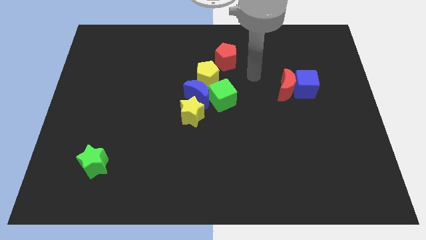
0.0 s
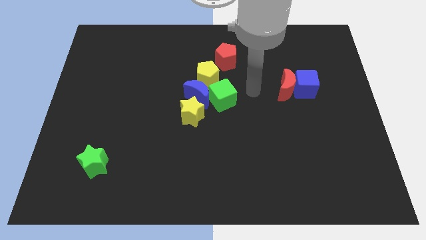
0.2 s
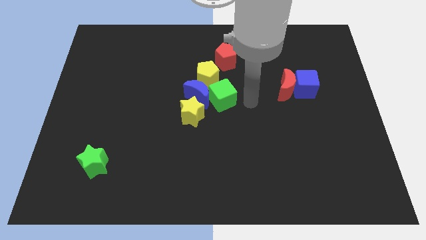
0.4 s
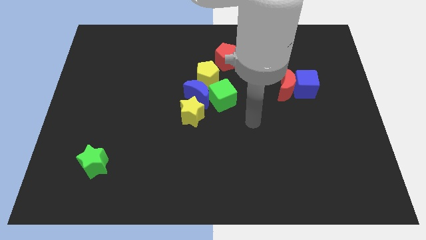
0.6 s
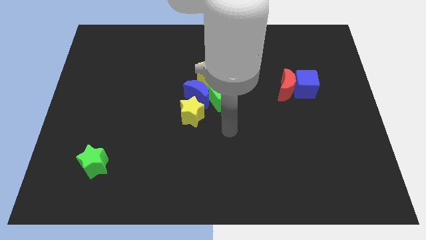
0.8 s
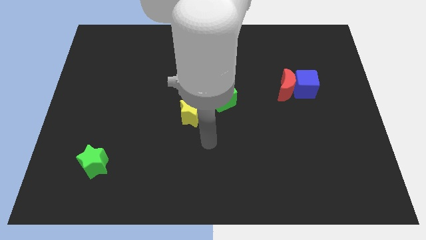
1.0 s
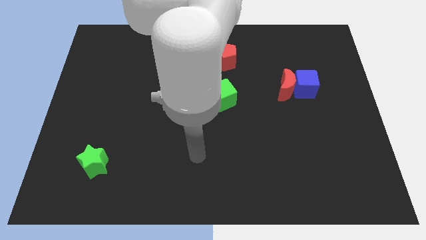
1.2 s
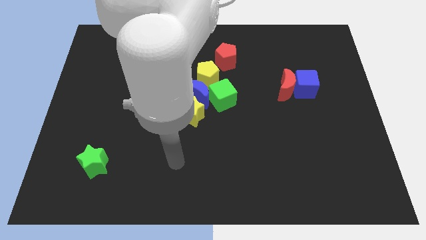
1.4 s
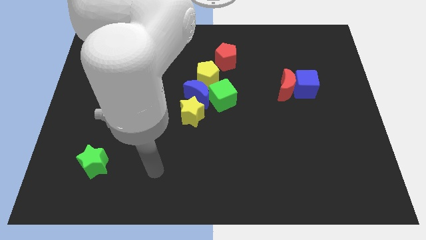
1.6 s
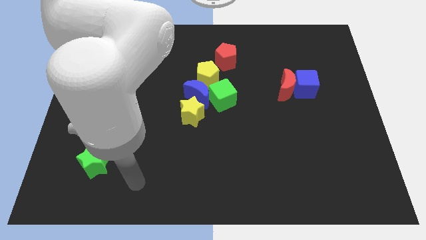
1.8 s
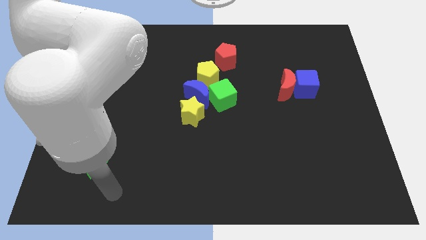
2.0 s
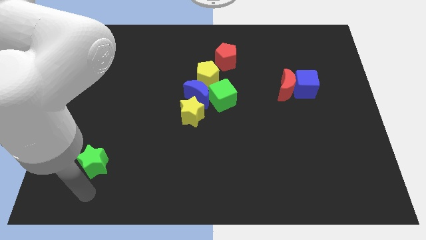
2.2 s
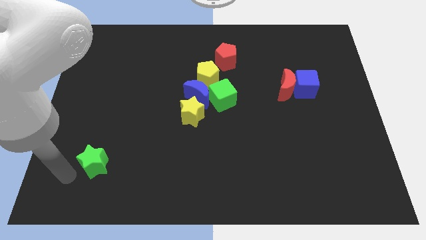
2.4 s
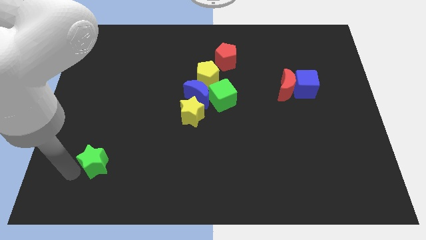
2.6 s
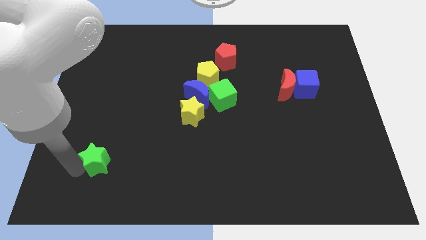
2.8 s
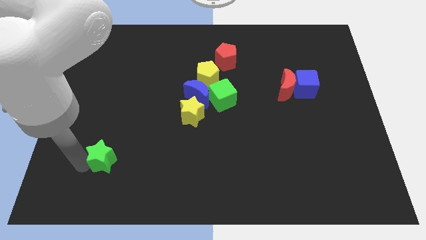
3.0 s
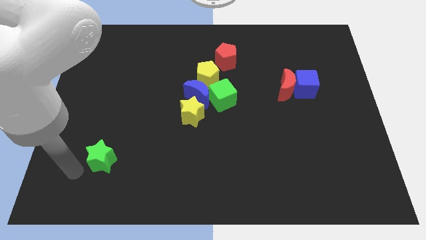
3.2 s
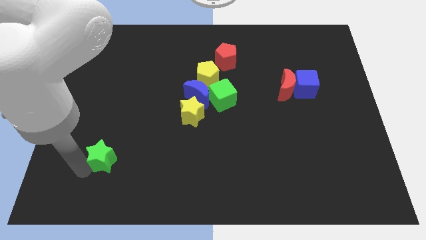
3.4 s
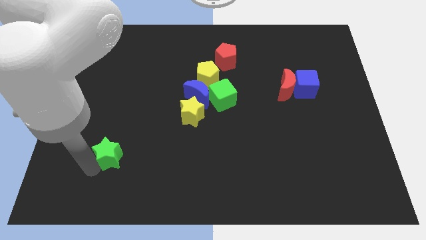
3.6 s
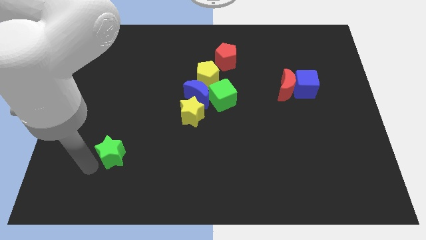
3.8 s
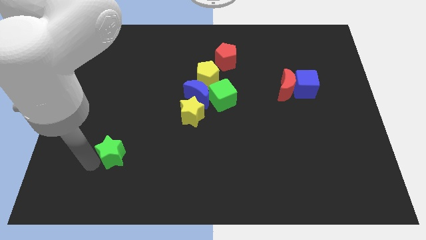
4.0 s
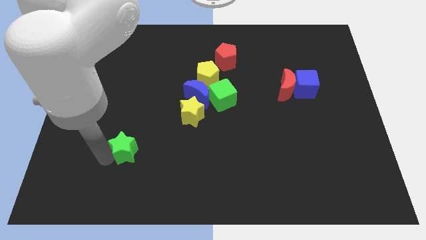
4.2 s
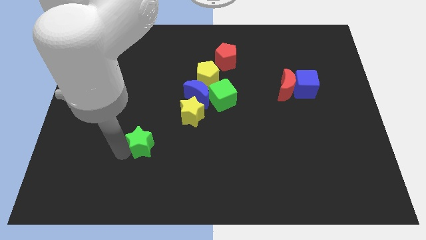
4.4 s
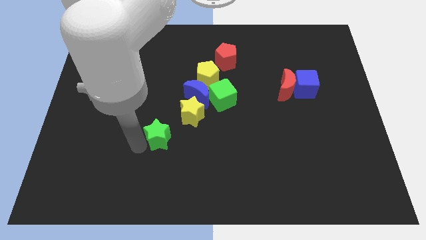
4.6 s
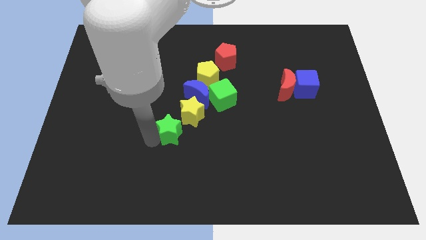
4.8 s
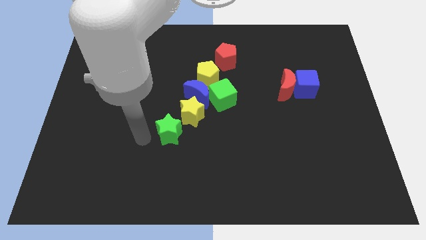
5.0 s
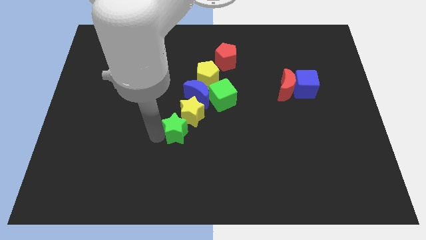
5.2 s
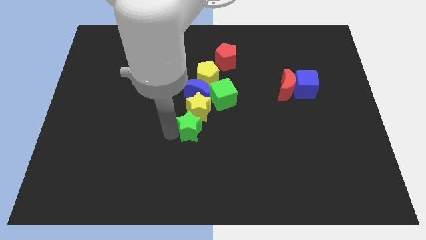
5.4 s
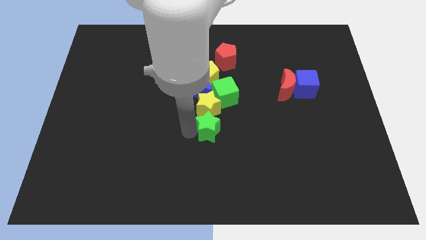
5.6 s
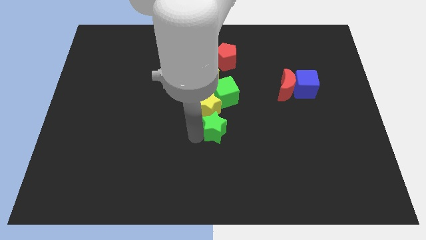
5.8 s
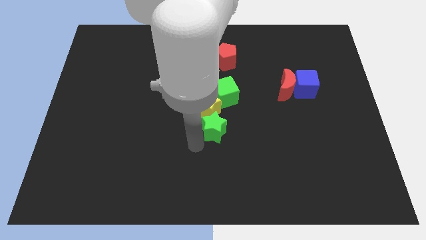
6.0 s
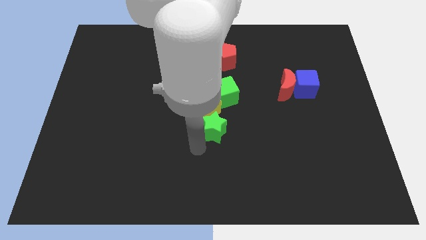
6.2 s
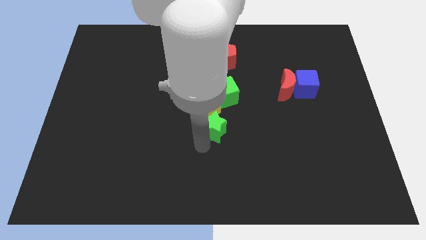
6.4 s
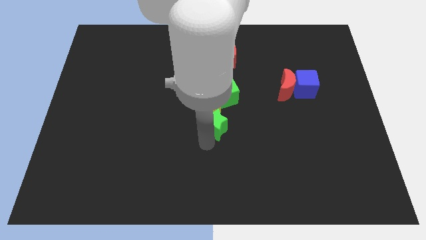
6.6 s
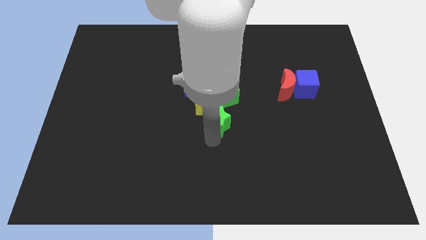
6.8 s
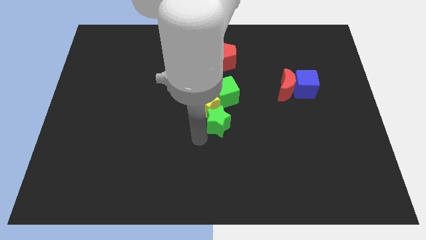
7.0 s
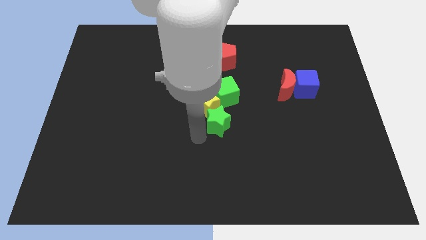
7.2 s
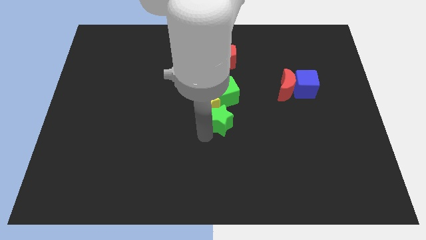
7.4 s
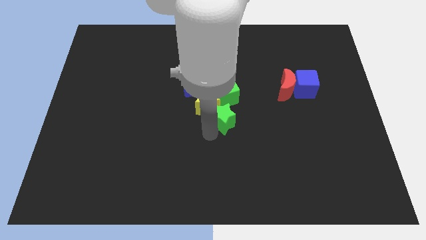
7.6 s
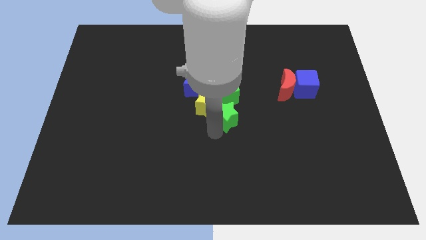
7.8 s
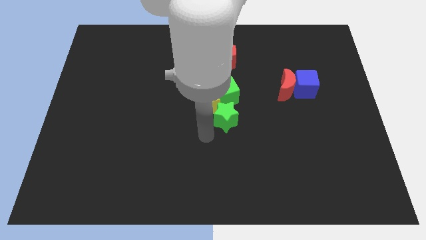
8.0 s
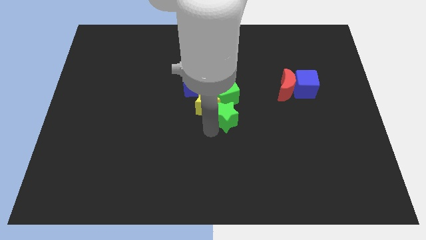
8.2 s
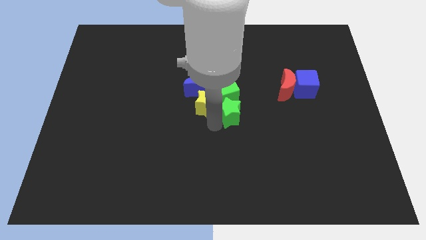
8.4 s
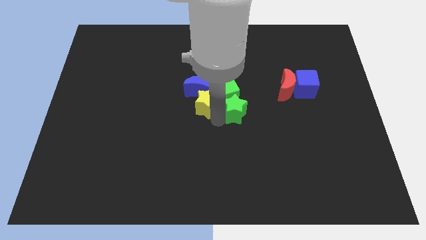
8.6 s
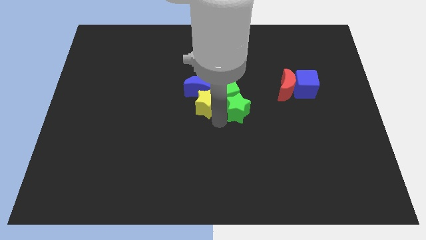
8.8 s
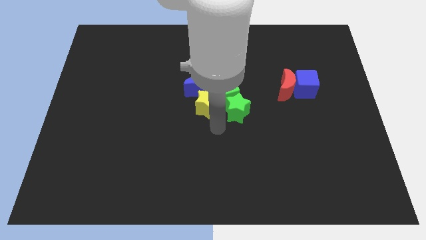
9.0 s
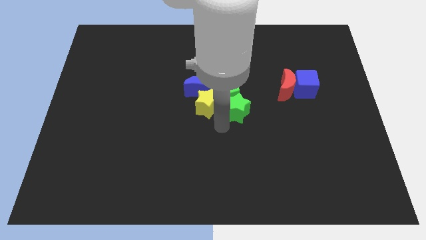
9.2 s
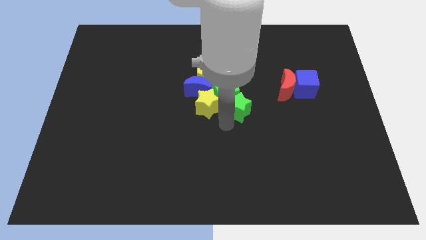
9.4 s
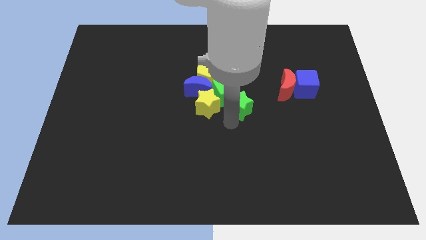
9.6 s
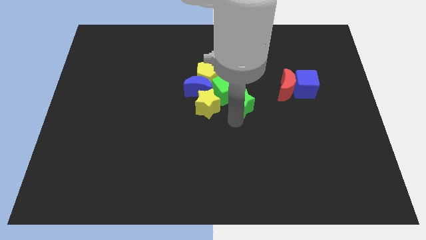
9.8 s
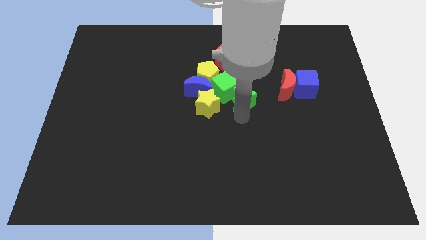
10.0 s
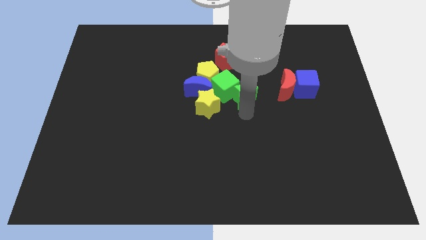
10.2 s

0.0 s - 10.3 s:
move the green star just left of the blue cube

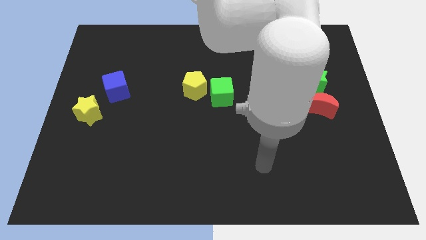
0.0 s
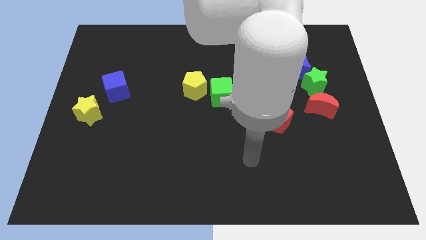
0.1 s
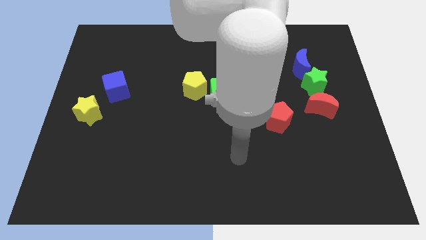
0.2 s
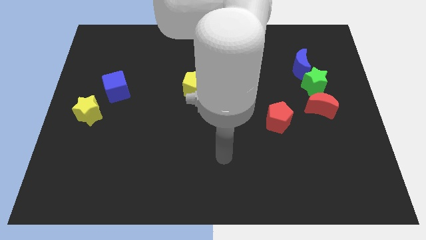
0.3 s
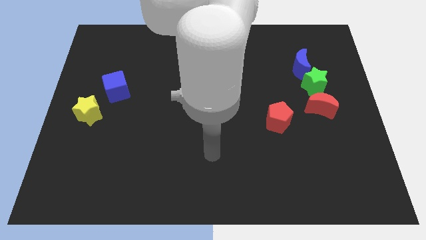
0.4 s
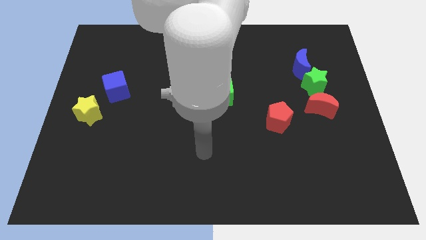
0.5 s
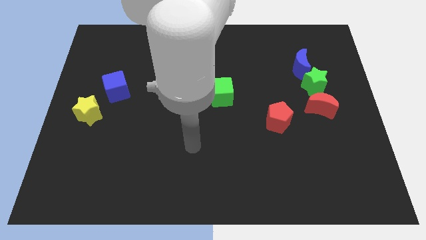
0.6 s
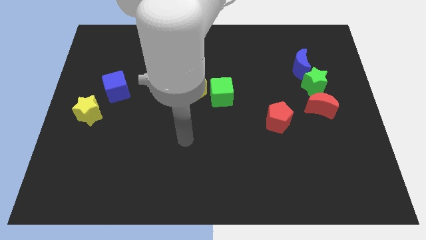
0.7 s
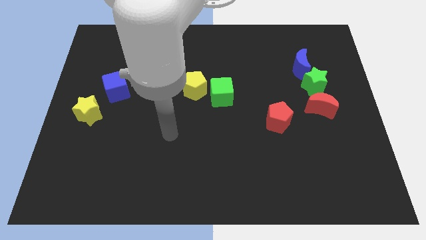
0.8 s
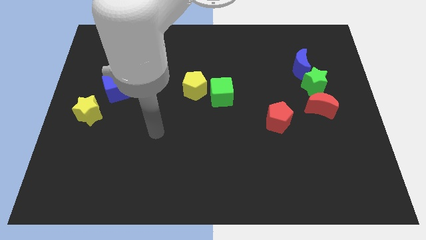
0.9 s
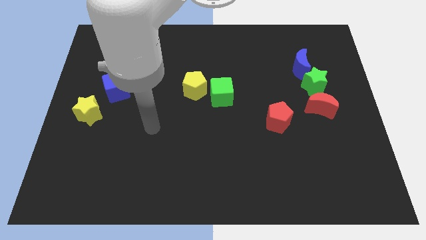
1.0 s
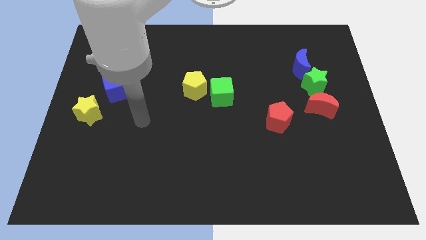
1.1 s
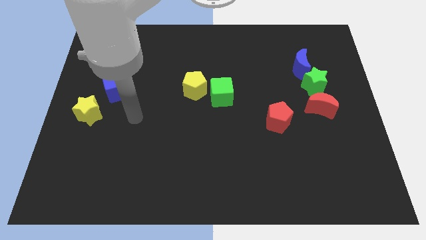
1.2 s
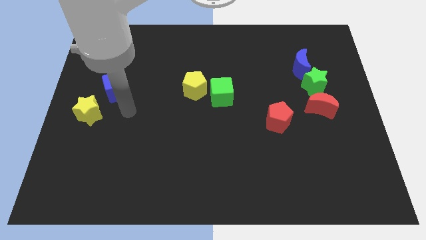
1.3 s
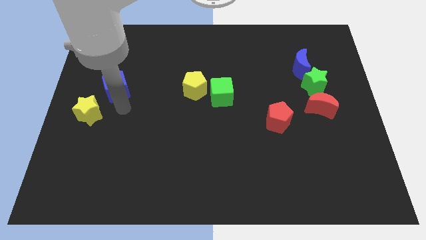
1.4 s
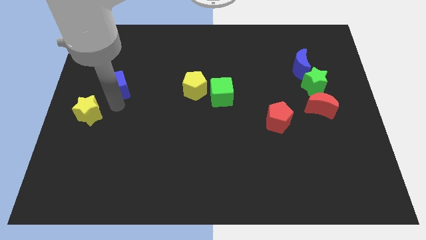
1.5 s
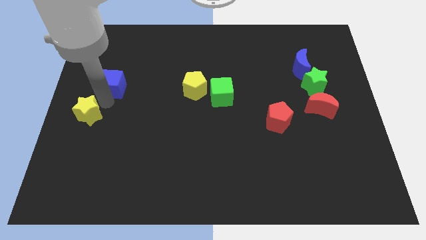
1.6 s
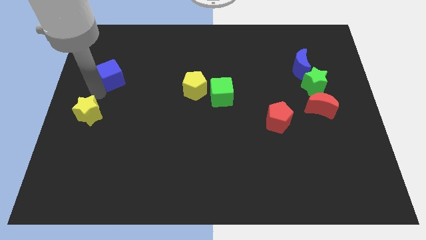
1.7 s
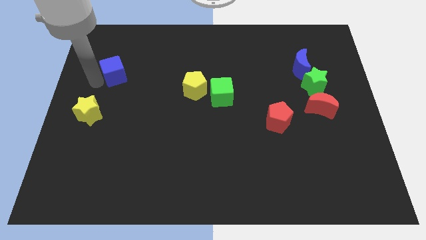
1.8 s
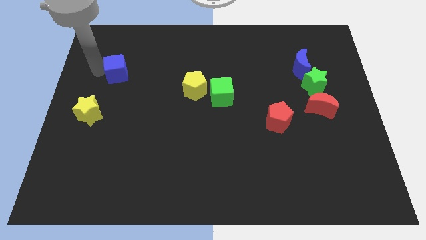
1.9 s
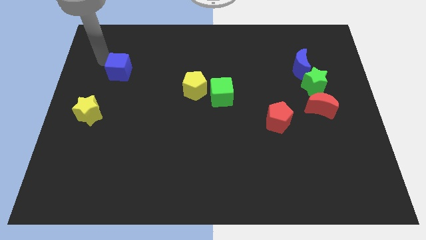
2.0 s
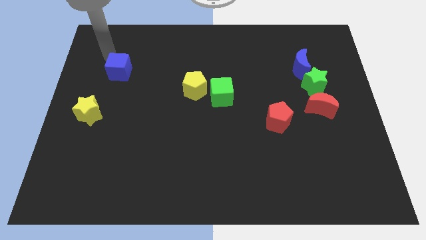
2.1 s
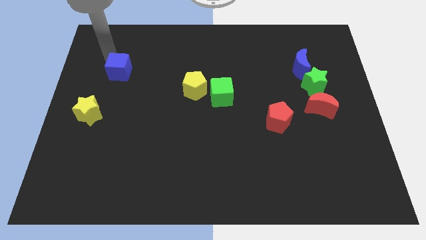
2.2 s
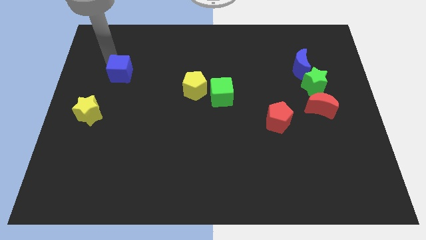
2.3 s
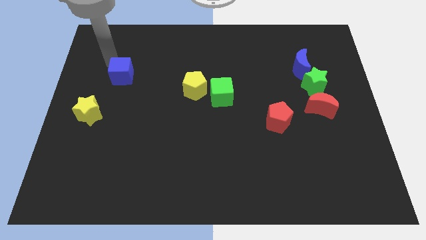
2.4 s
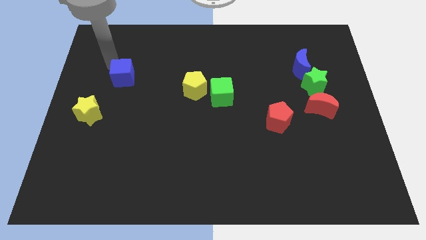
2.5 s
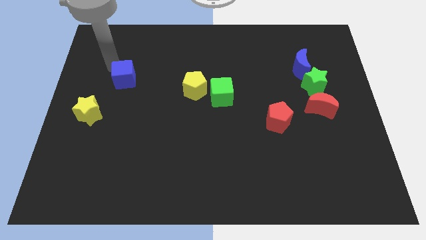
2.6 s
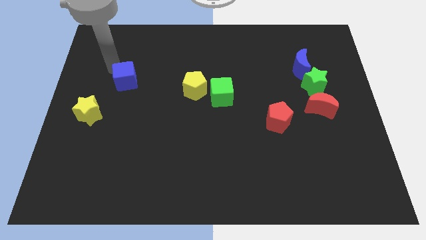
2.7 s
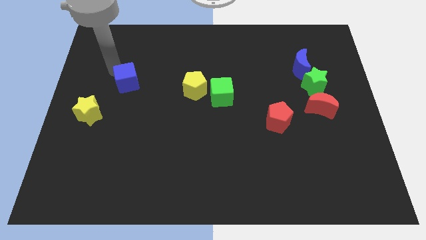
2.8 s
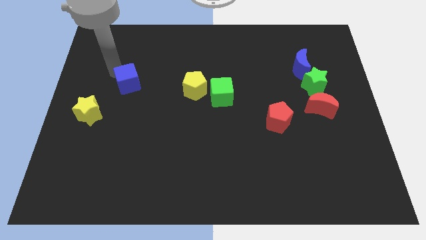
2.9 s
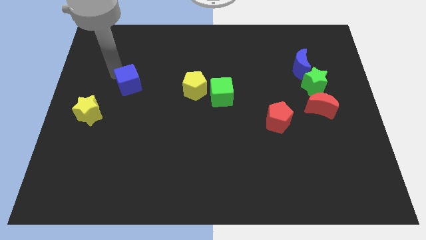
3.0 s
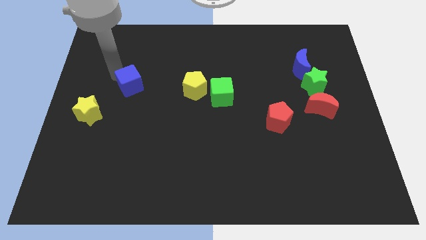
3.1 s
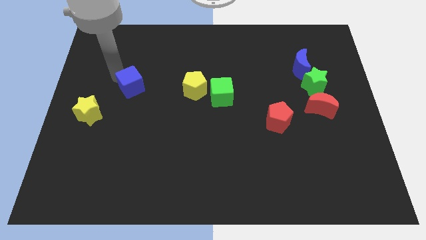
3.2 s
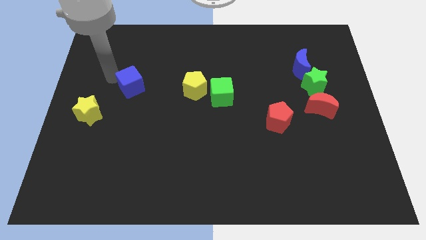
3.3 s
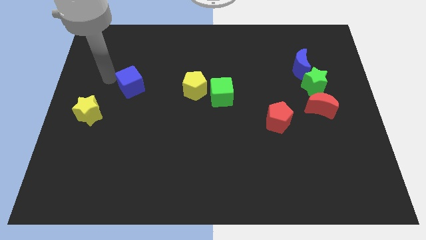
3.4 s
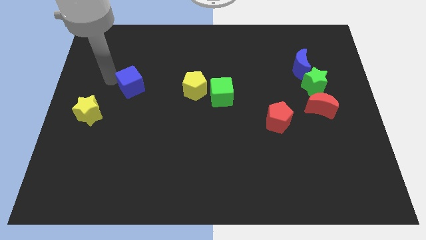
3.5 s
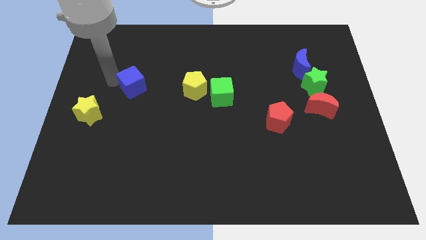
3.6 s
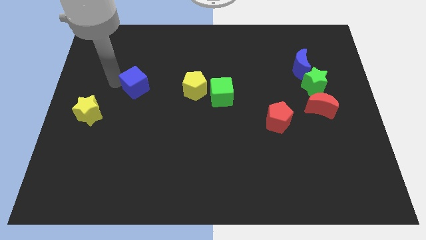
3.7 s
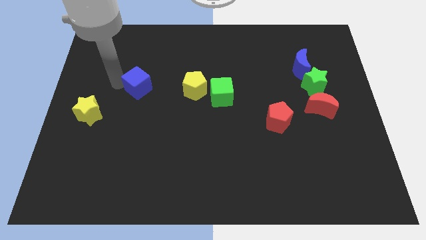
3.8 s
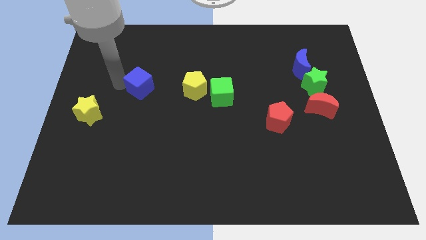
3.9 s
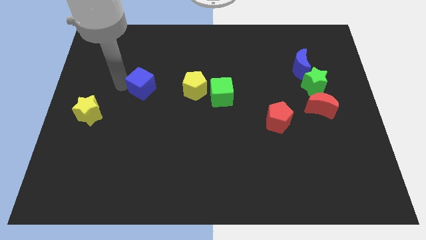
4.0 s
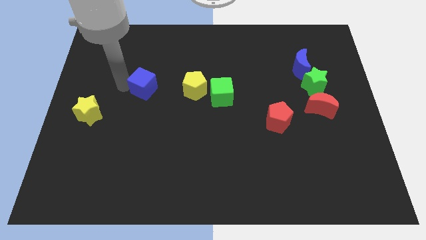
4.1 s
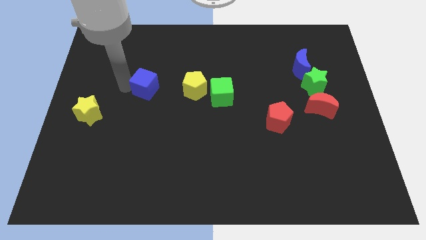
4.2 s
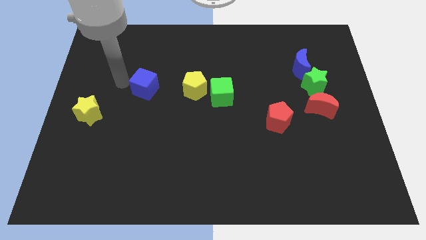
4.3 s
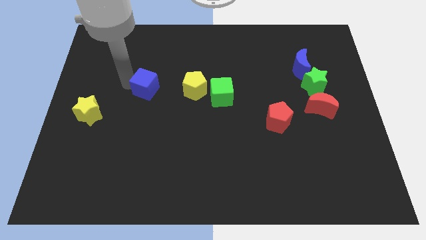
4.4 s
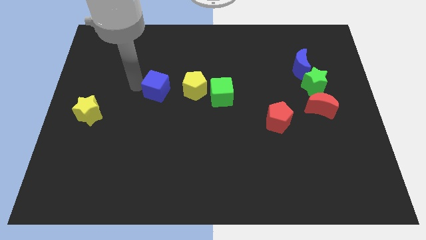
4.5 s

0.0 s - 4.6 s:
push the blue cube left of the green cube
